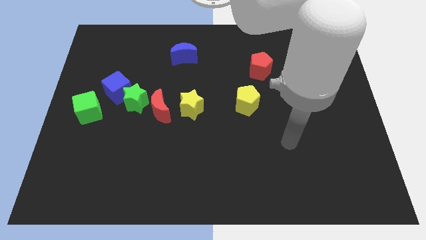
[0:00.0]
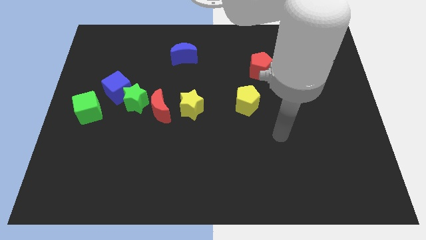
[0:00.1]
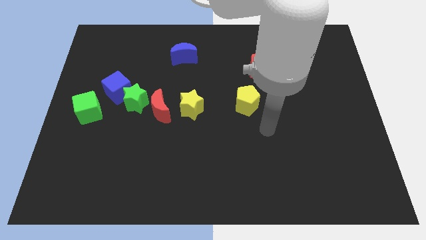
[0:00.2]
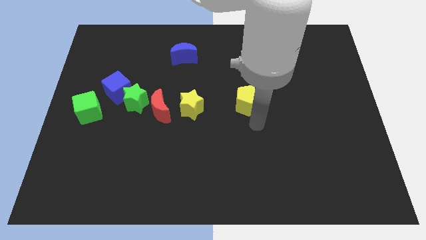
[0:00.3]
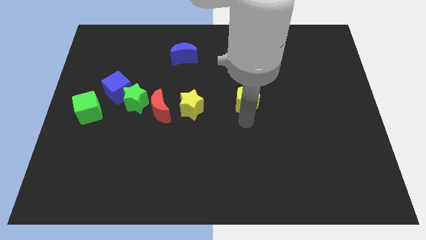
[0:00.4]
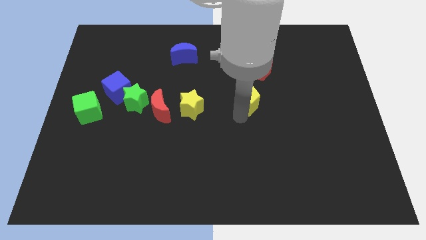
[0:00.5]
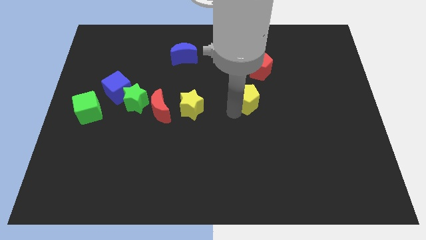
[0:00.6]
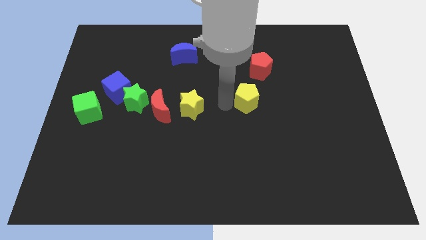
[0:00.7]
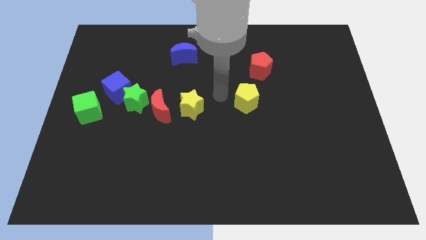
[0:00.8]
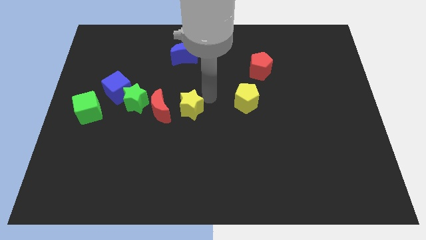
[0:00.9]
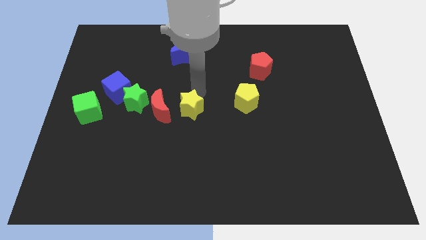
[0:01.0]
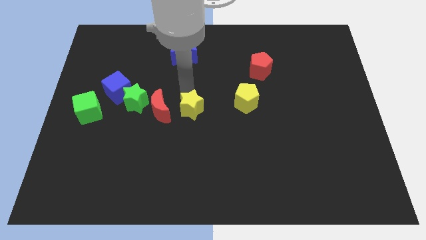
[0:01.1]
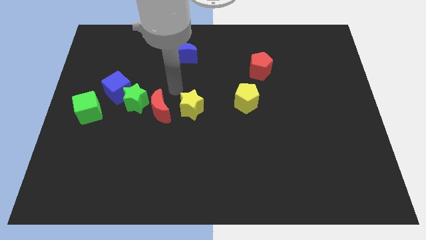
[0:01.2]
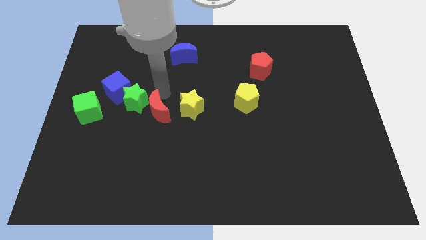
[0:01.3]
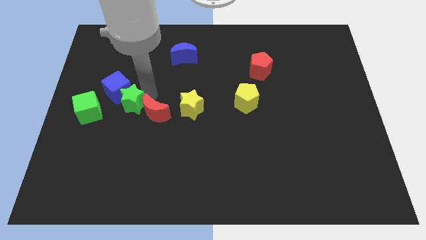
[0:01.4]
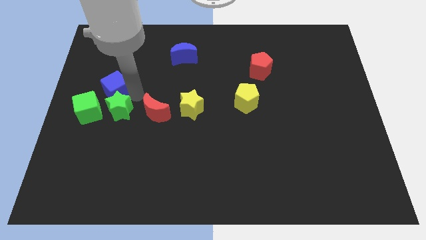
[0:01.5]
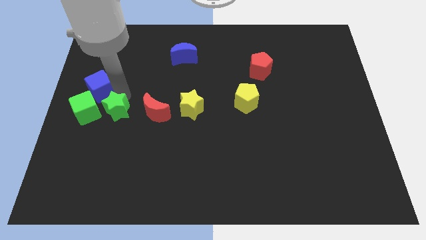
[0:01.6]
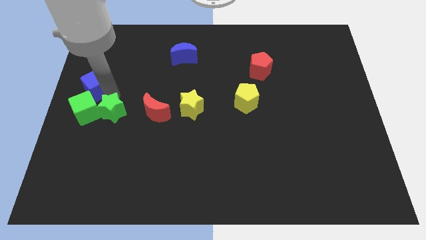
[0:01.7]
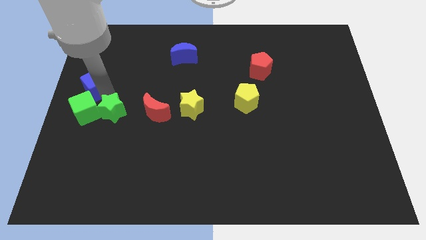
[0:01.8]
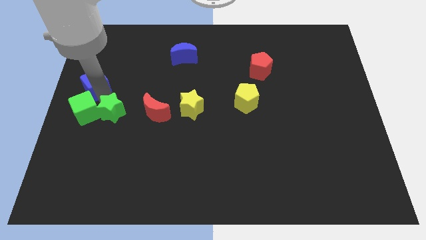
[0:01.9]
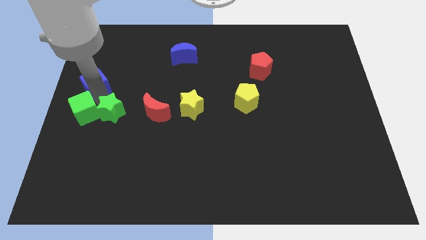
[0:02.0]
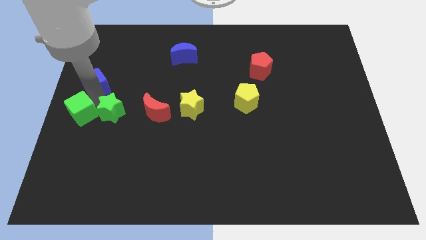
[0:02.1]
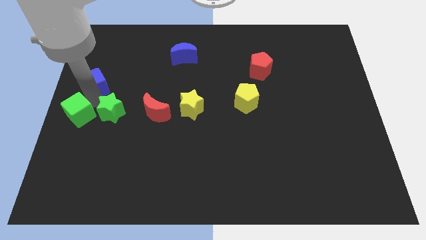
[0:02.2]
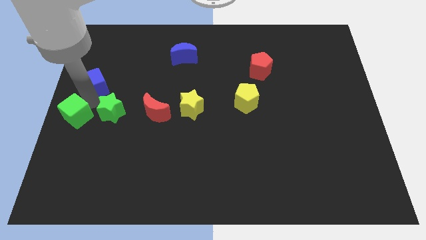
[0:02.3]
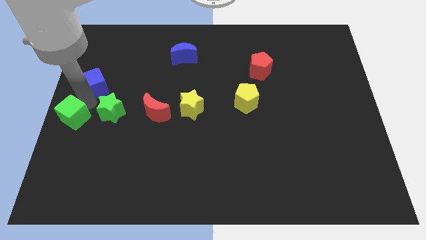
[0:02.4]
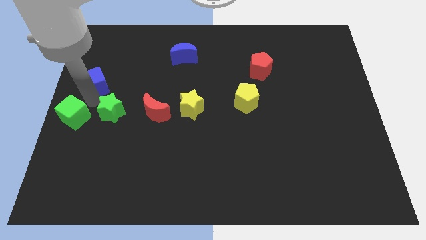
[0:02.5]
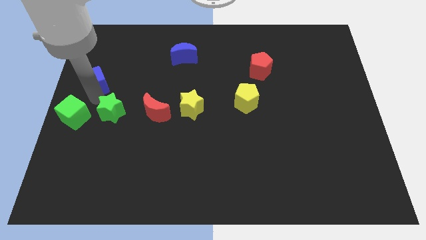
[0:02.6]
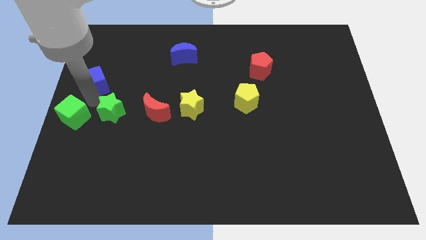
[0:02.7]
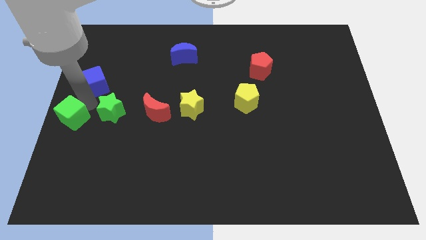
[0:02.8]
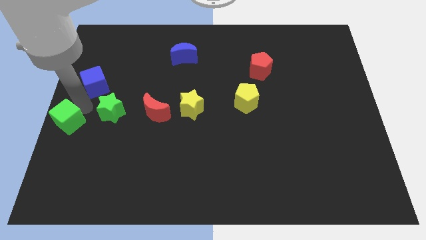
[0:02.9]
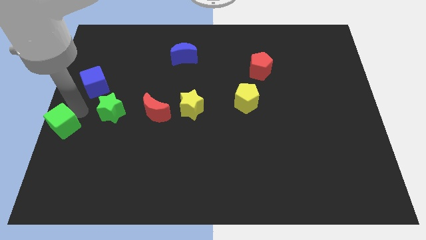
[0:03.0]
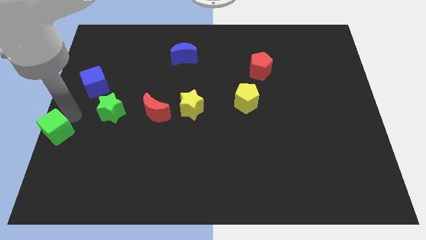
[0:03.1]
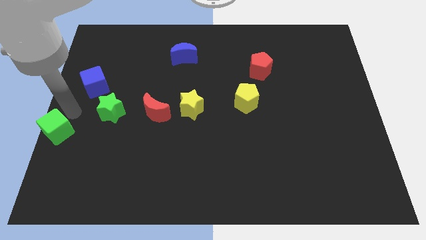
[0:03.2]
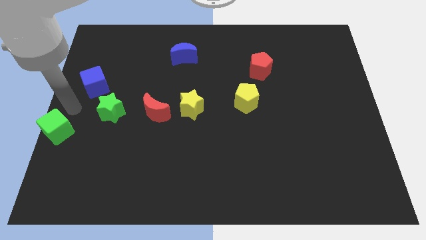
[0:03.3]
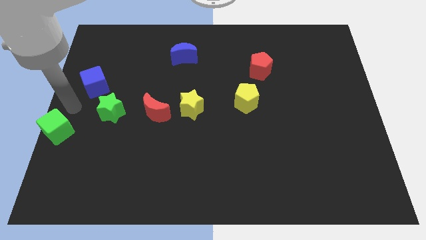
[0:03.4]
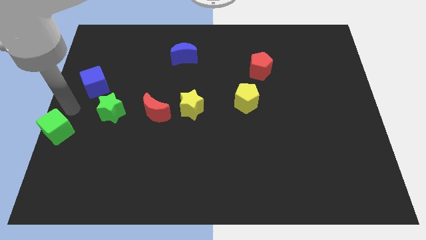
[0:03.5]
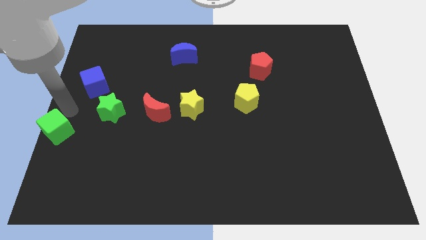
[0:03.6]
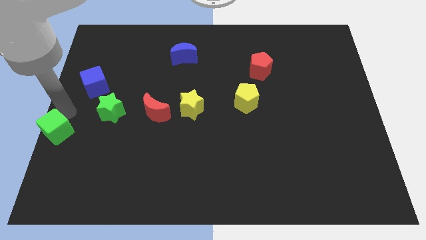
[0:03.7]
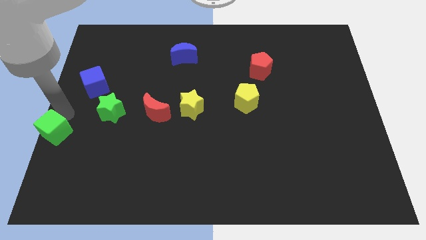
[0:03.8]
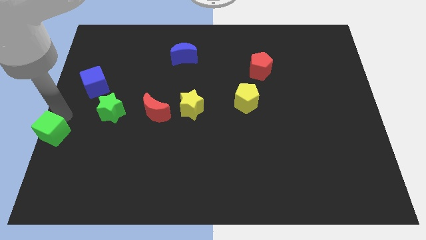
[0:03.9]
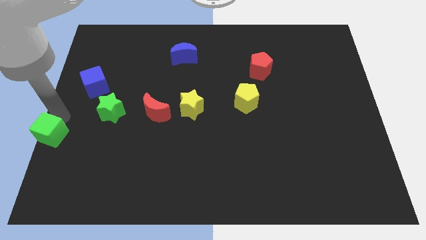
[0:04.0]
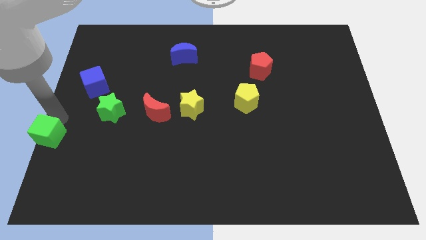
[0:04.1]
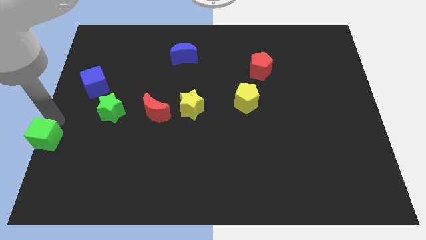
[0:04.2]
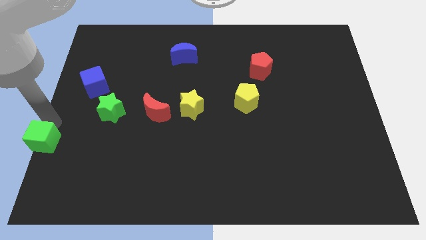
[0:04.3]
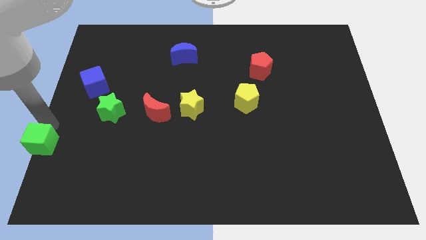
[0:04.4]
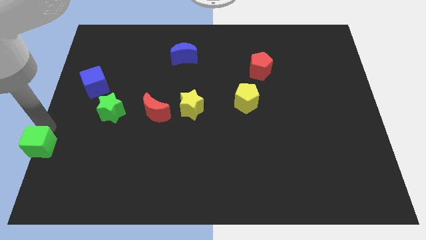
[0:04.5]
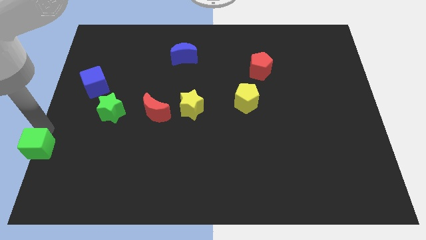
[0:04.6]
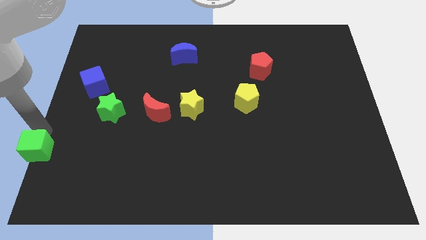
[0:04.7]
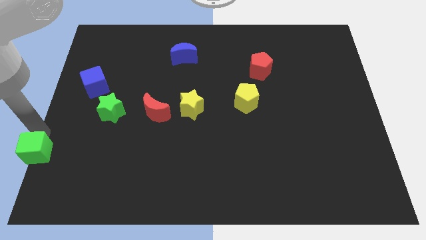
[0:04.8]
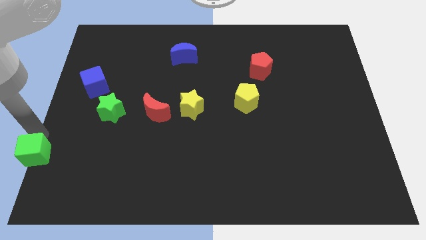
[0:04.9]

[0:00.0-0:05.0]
move the green cube to the bottom left

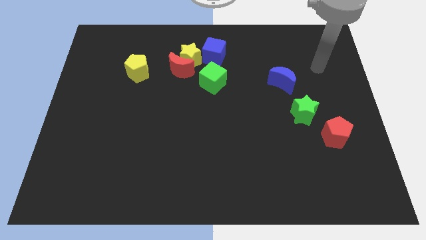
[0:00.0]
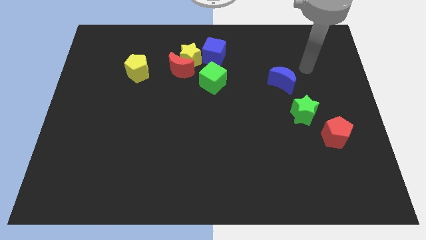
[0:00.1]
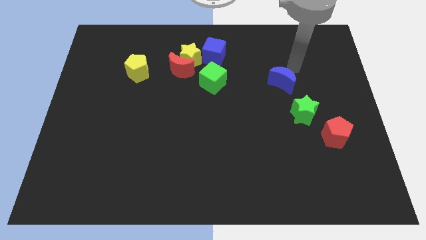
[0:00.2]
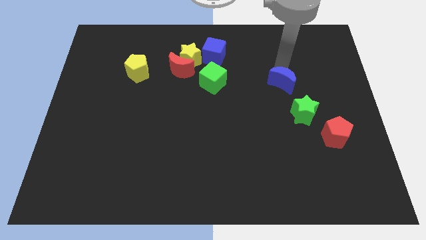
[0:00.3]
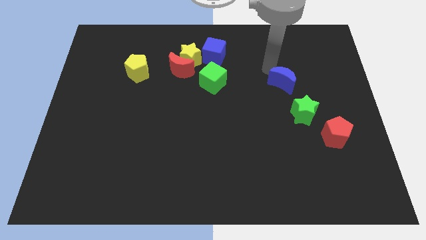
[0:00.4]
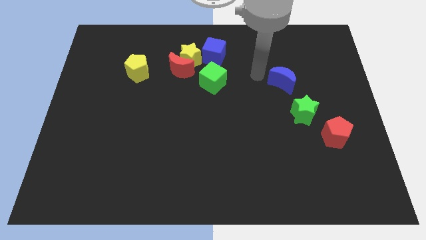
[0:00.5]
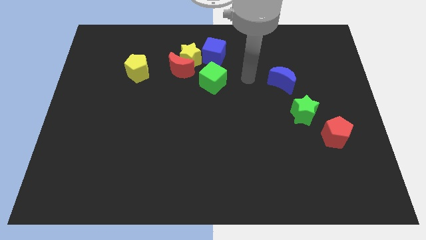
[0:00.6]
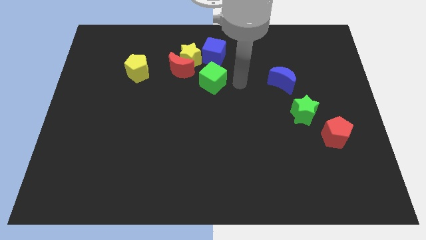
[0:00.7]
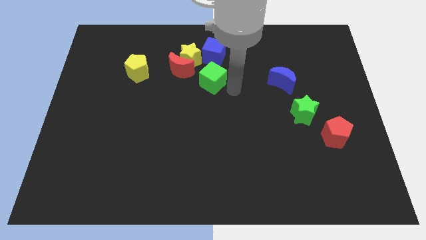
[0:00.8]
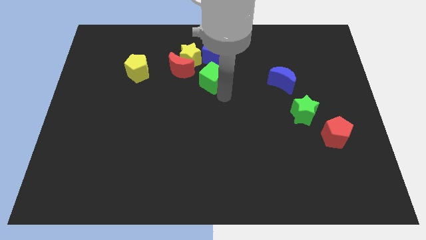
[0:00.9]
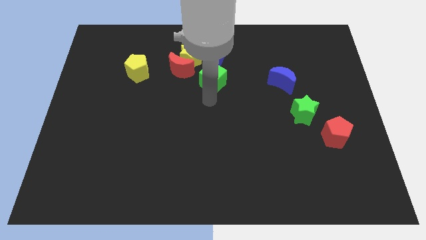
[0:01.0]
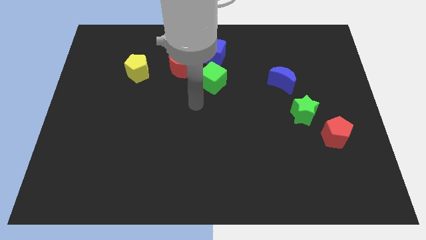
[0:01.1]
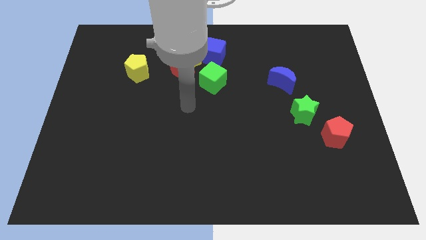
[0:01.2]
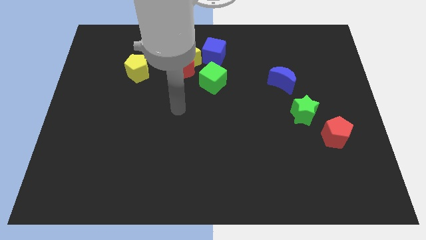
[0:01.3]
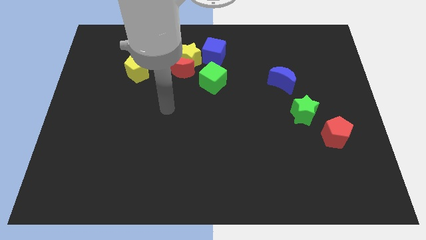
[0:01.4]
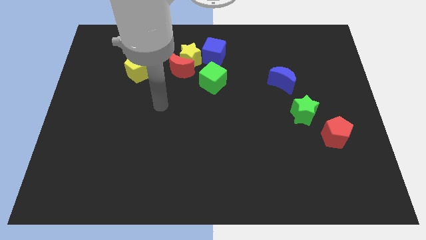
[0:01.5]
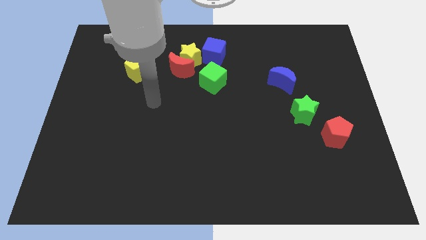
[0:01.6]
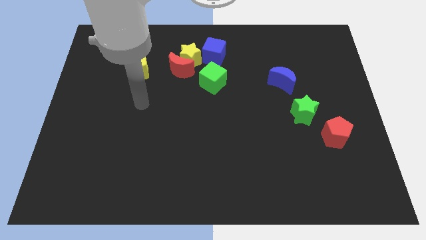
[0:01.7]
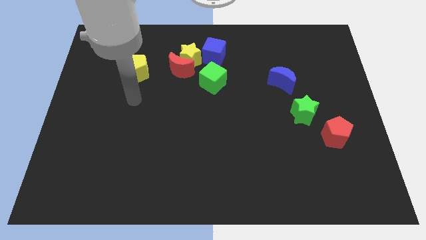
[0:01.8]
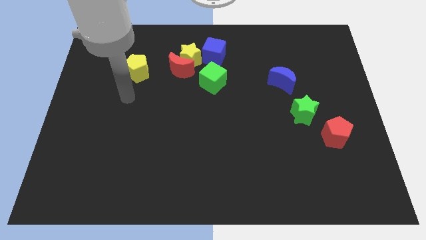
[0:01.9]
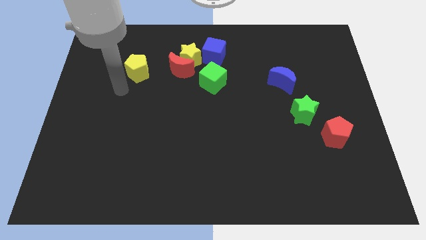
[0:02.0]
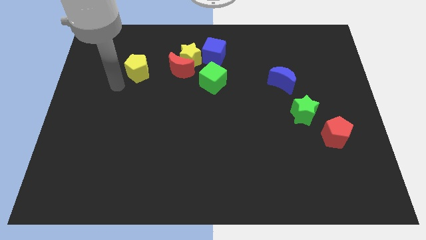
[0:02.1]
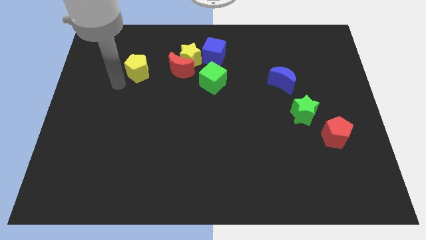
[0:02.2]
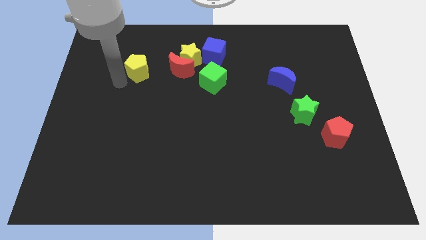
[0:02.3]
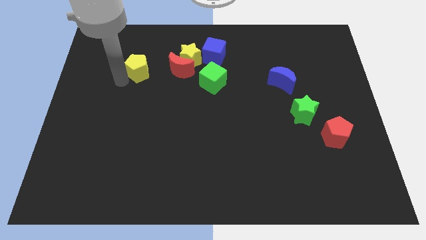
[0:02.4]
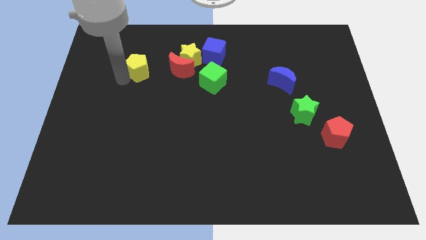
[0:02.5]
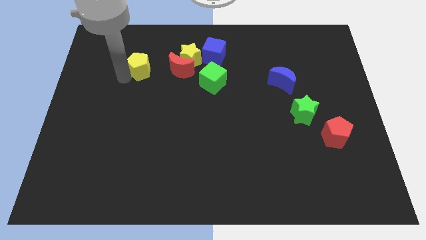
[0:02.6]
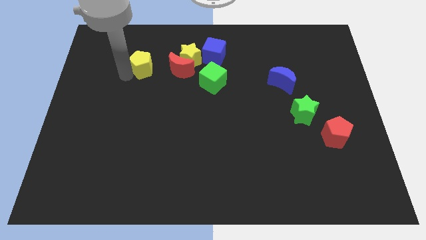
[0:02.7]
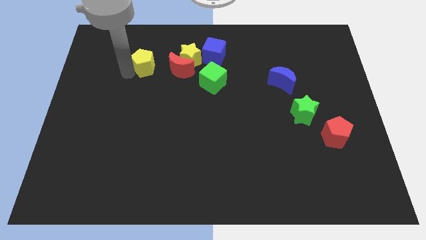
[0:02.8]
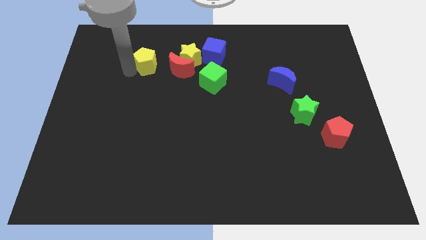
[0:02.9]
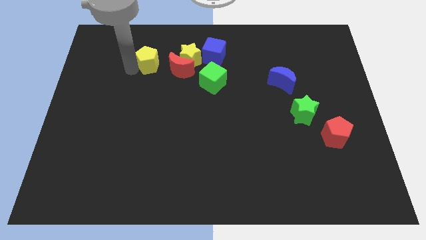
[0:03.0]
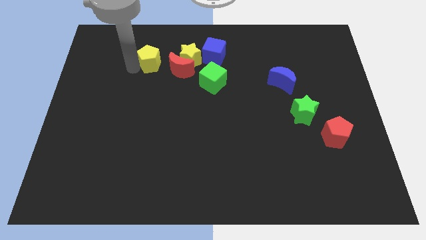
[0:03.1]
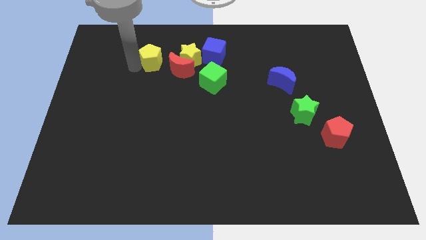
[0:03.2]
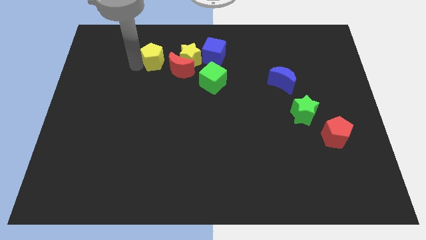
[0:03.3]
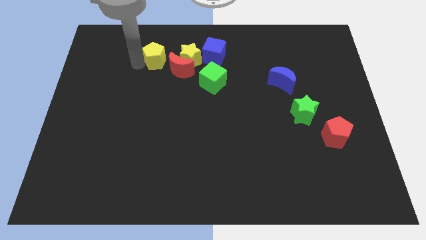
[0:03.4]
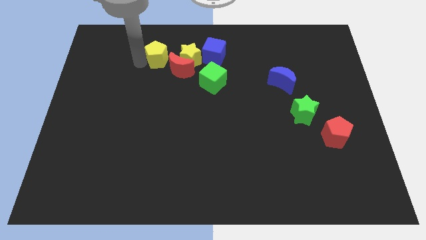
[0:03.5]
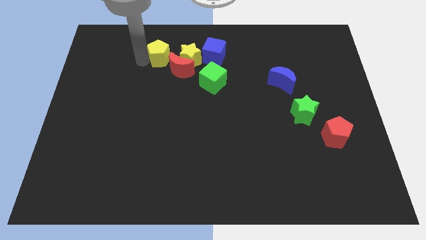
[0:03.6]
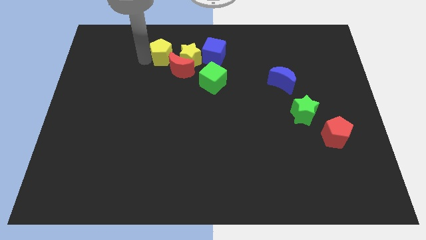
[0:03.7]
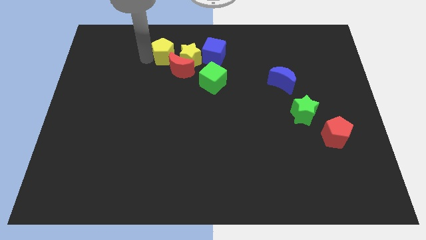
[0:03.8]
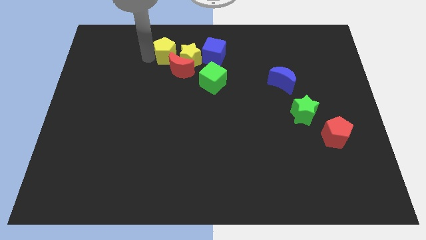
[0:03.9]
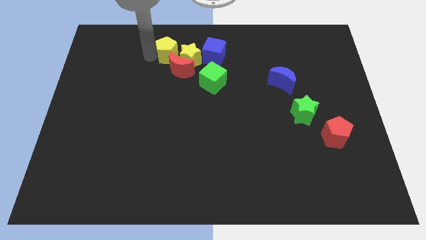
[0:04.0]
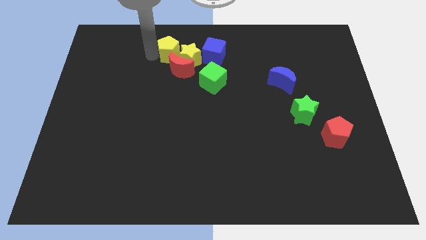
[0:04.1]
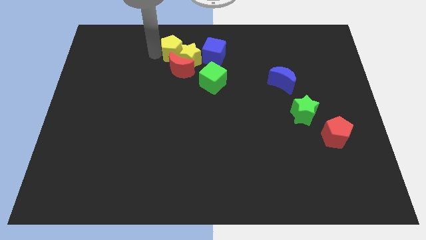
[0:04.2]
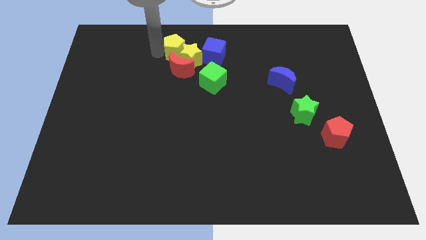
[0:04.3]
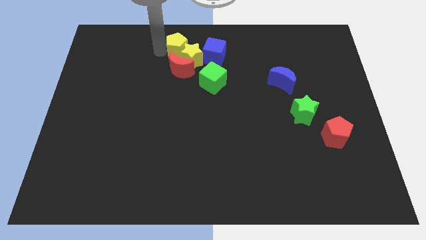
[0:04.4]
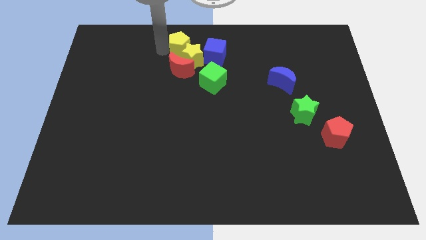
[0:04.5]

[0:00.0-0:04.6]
slide the yellow pentagon to the top
